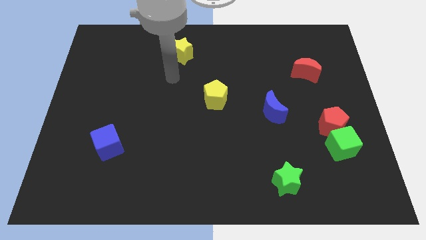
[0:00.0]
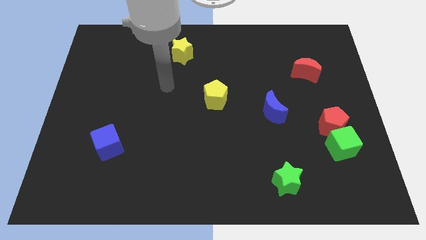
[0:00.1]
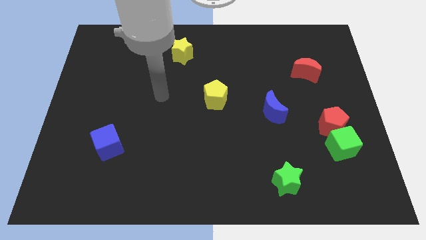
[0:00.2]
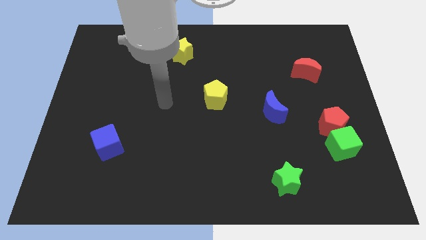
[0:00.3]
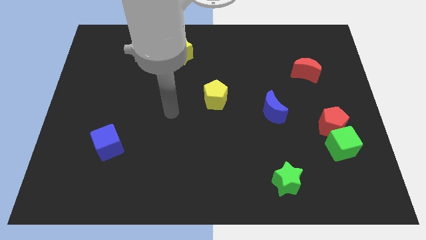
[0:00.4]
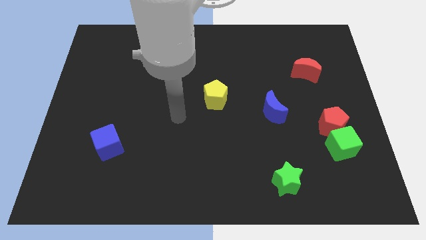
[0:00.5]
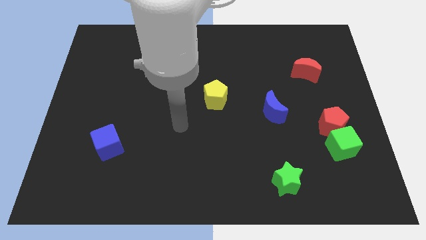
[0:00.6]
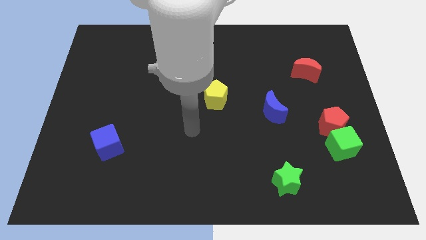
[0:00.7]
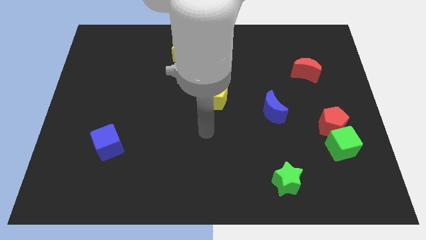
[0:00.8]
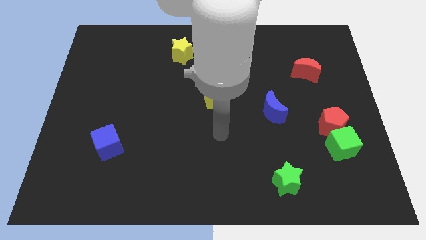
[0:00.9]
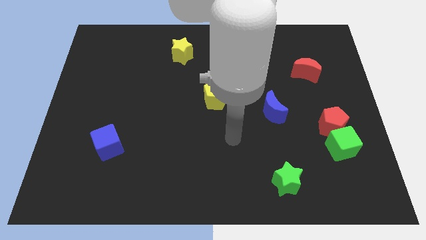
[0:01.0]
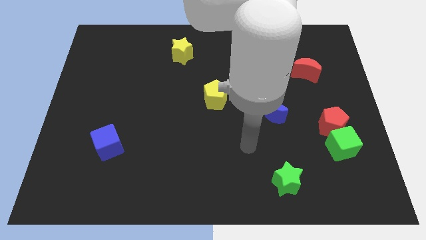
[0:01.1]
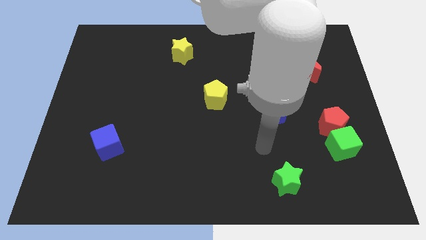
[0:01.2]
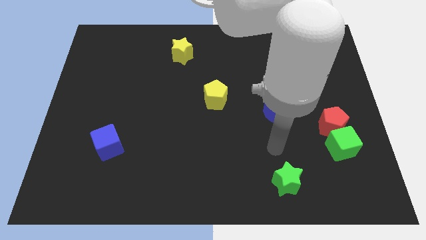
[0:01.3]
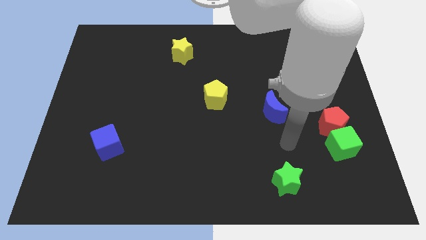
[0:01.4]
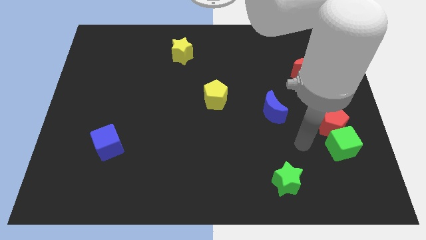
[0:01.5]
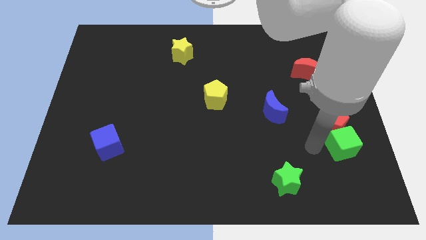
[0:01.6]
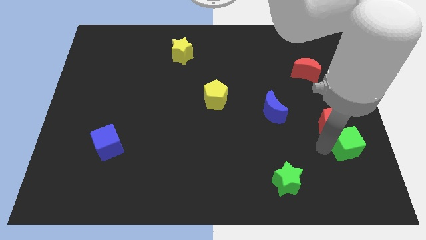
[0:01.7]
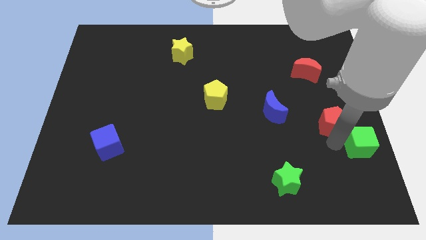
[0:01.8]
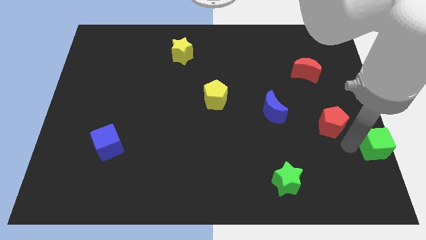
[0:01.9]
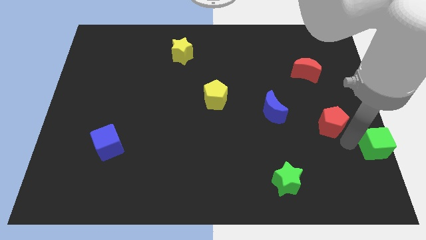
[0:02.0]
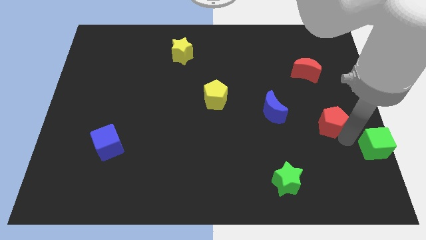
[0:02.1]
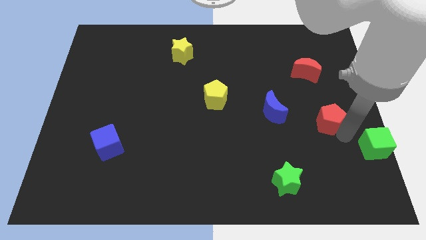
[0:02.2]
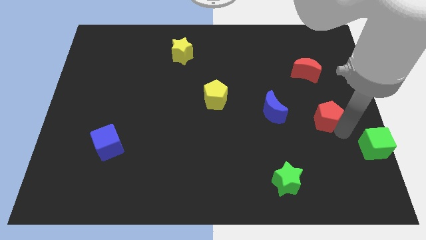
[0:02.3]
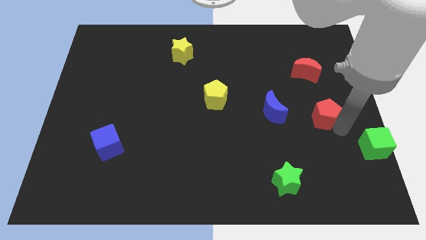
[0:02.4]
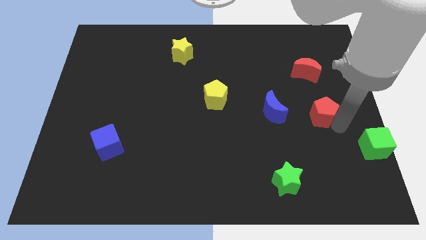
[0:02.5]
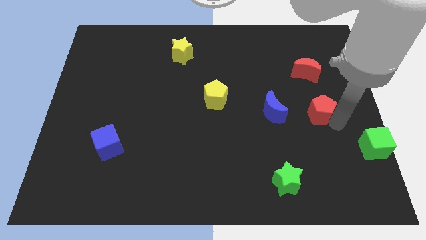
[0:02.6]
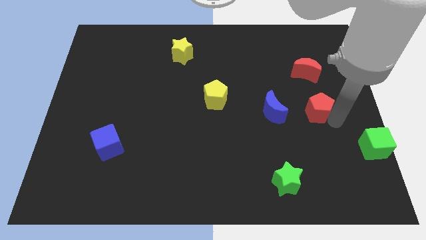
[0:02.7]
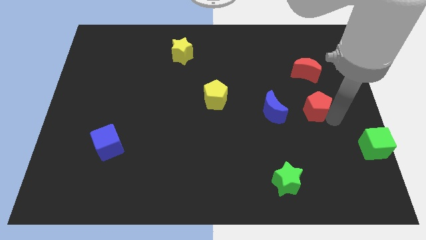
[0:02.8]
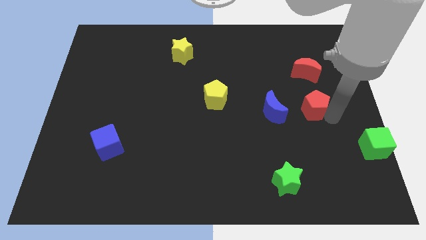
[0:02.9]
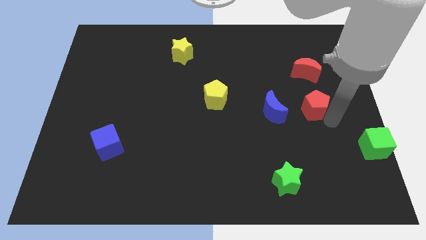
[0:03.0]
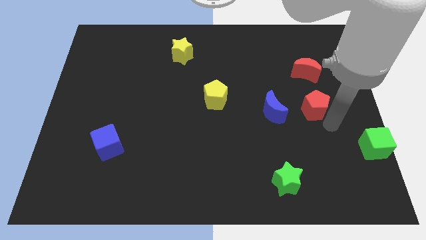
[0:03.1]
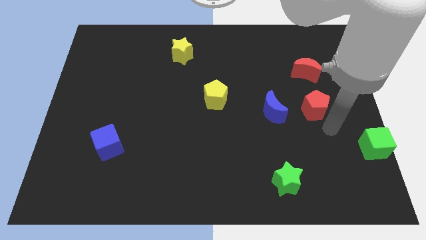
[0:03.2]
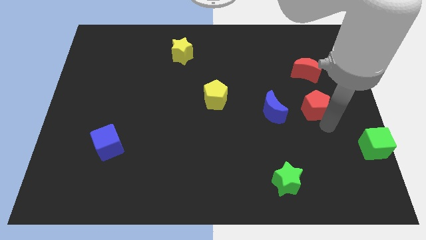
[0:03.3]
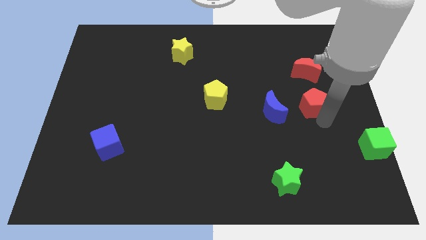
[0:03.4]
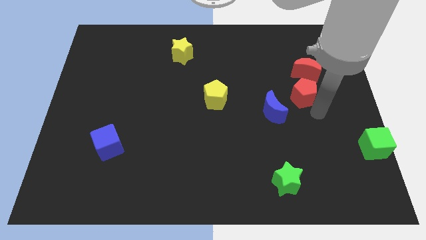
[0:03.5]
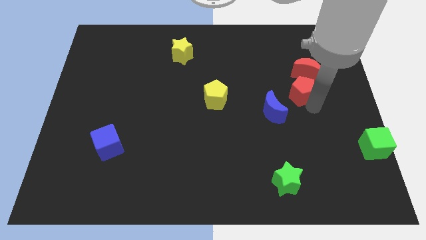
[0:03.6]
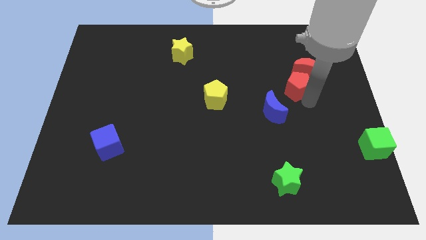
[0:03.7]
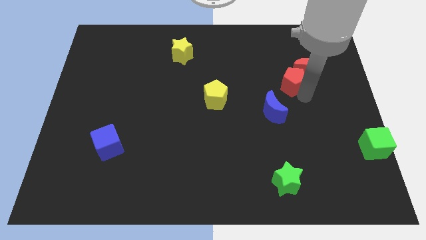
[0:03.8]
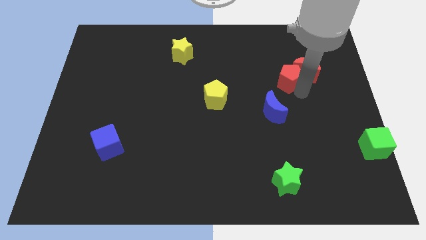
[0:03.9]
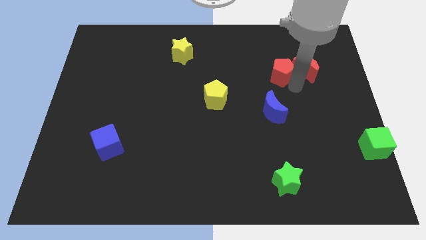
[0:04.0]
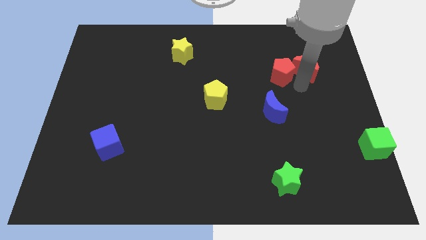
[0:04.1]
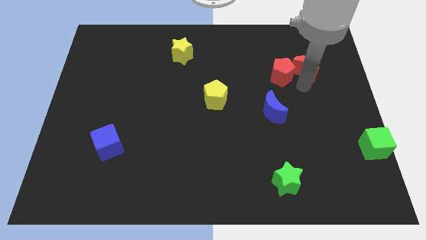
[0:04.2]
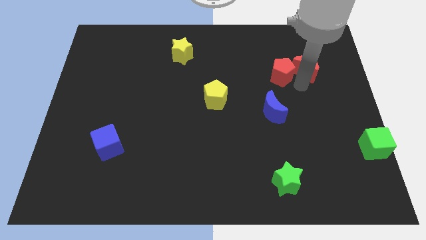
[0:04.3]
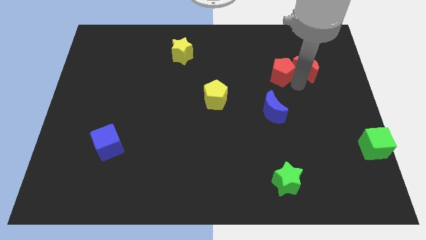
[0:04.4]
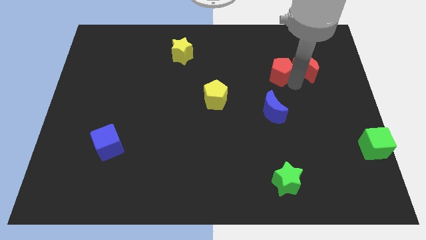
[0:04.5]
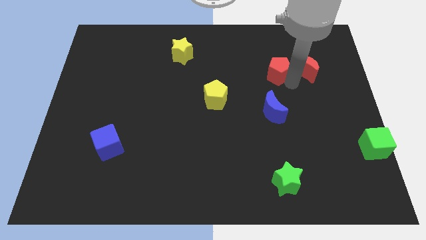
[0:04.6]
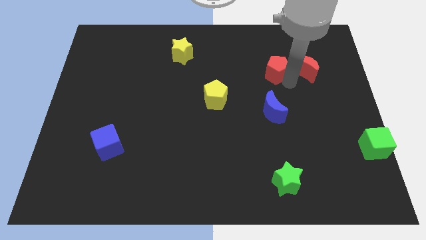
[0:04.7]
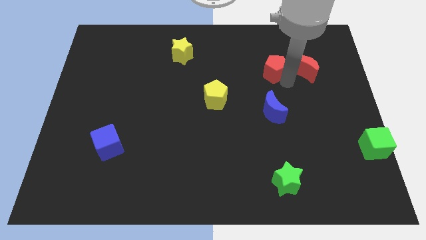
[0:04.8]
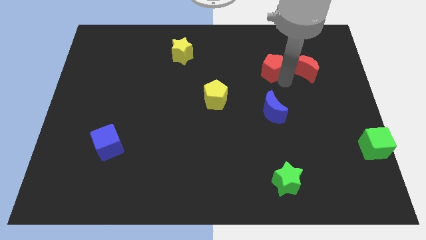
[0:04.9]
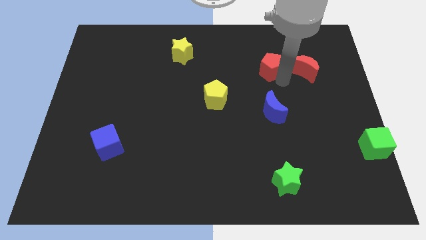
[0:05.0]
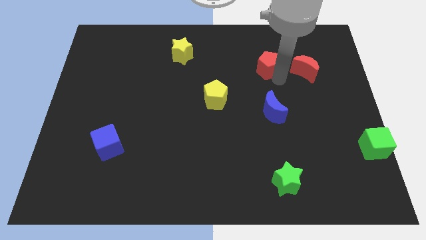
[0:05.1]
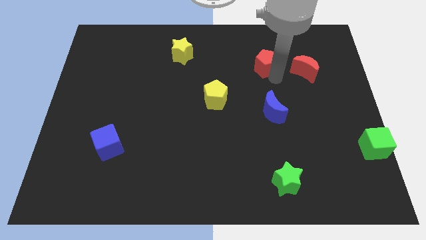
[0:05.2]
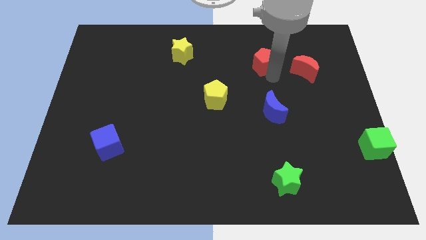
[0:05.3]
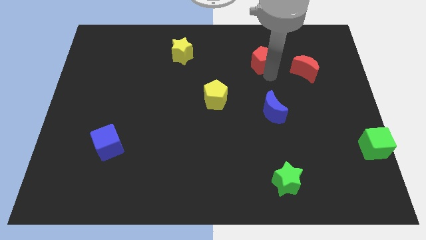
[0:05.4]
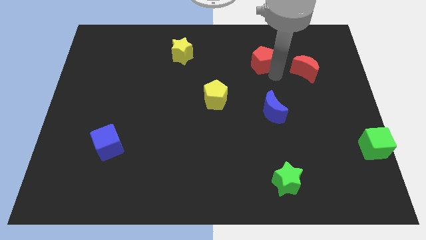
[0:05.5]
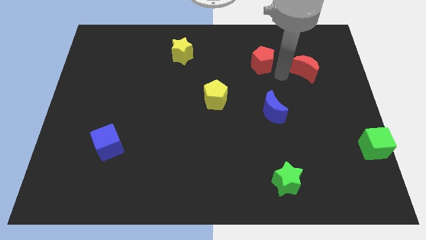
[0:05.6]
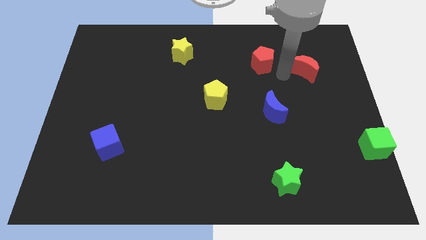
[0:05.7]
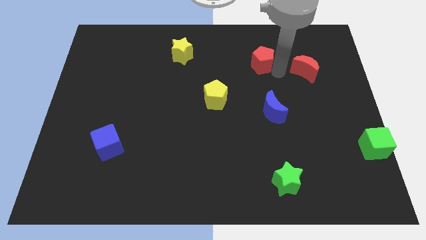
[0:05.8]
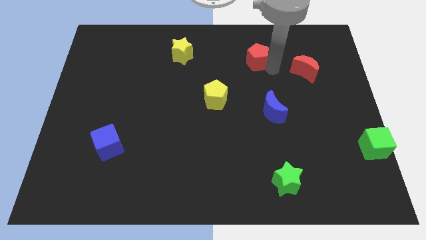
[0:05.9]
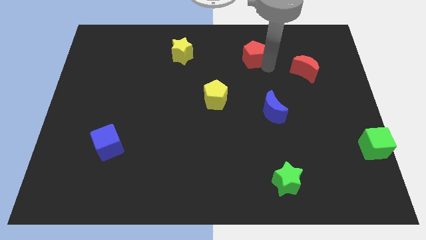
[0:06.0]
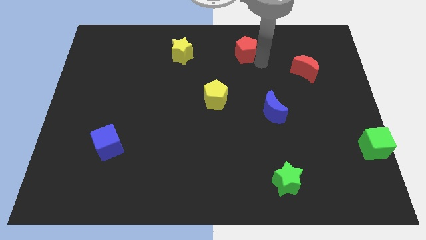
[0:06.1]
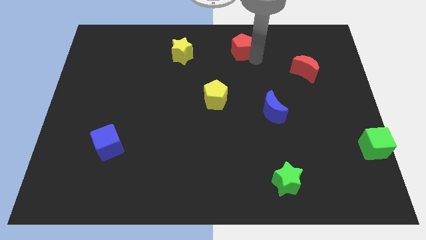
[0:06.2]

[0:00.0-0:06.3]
put the red pentagon to the top
